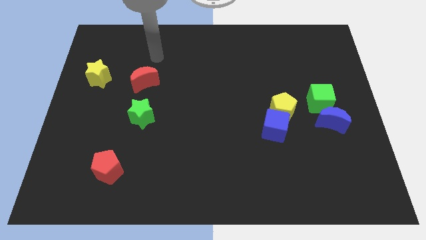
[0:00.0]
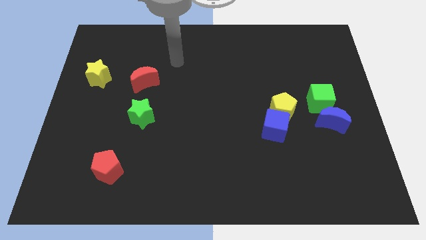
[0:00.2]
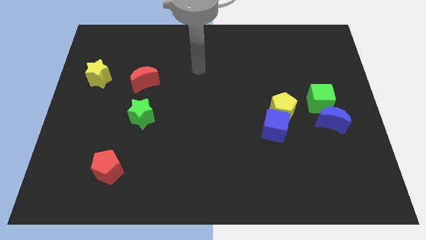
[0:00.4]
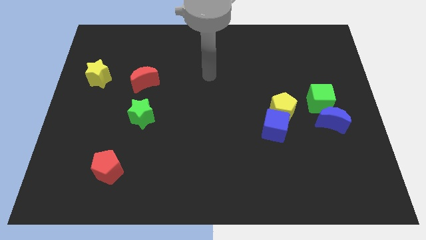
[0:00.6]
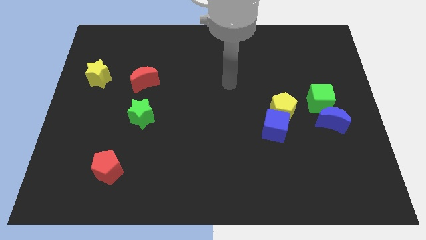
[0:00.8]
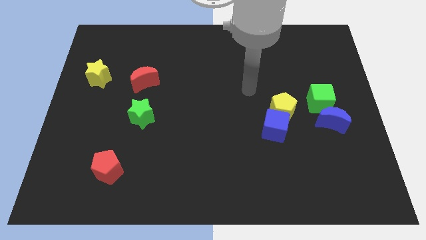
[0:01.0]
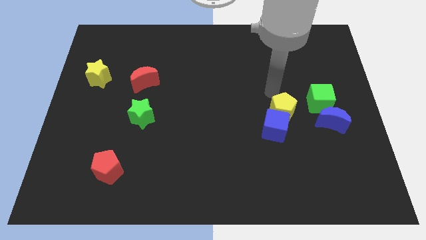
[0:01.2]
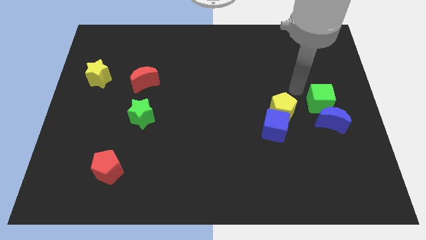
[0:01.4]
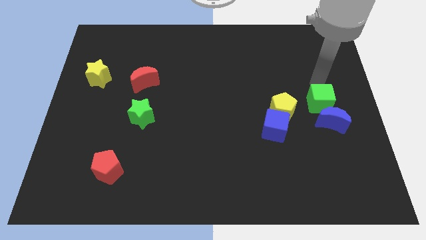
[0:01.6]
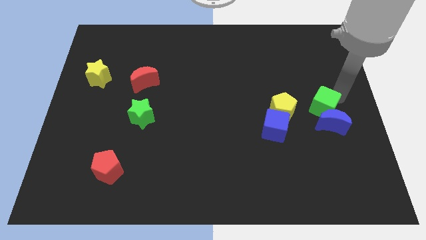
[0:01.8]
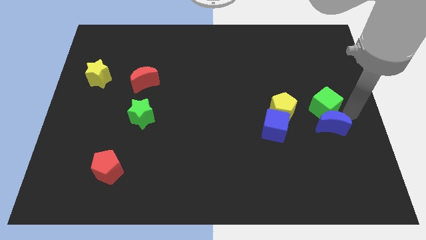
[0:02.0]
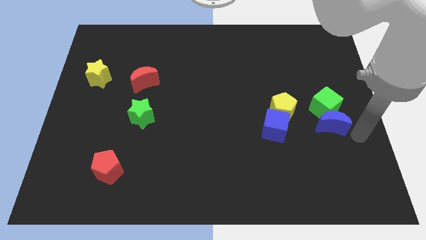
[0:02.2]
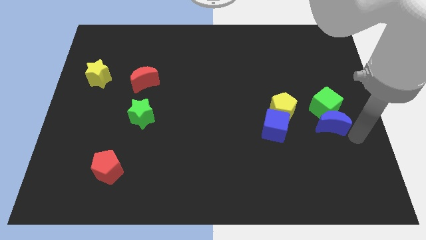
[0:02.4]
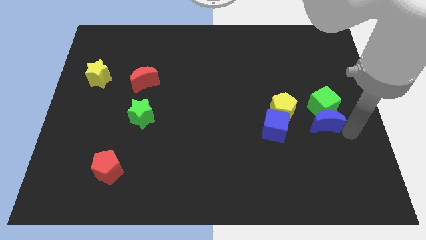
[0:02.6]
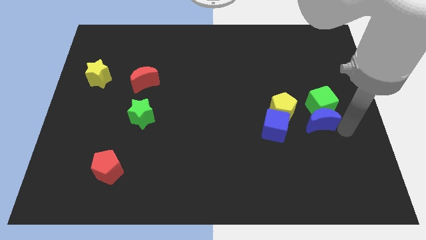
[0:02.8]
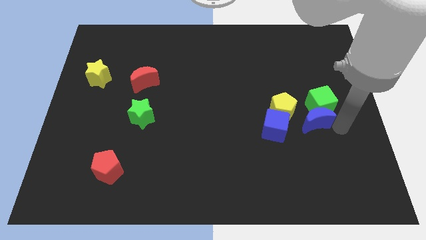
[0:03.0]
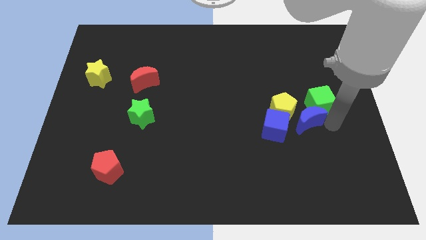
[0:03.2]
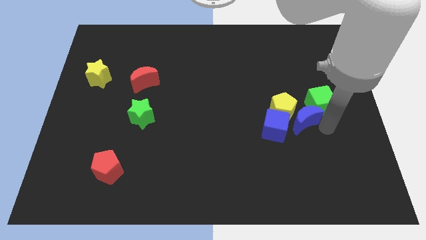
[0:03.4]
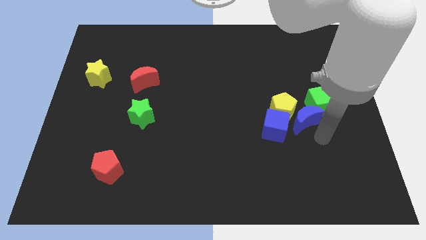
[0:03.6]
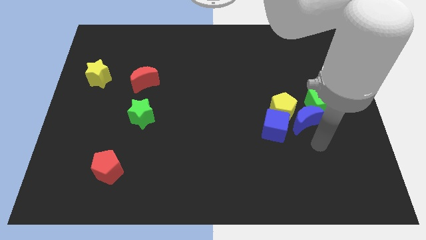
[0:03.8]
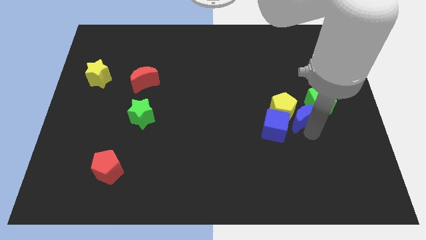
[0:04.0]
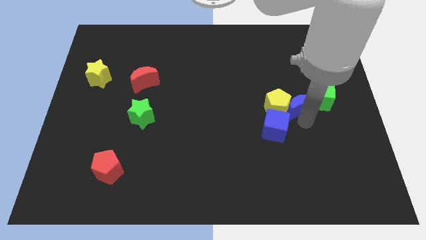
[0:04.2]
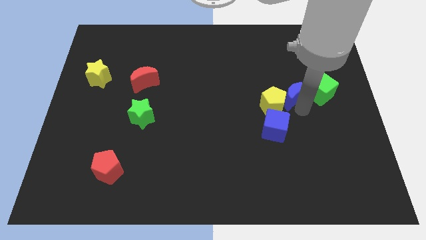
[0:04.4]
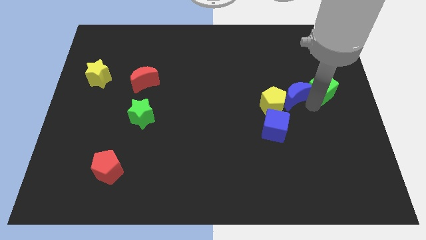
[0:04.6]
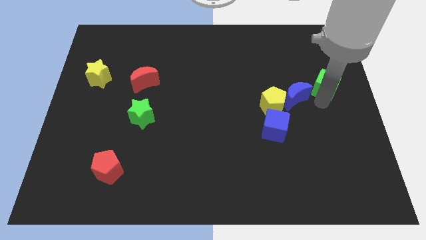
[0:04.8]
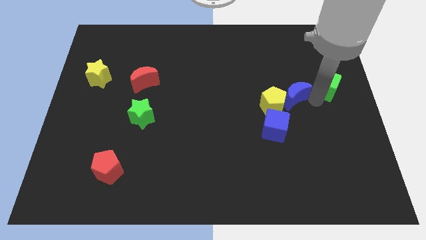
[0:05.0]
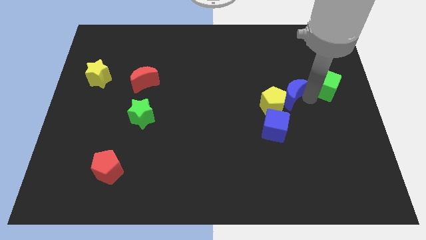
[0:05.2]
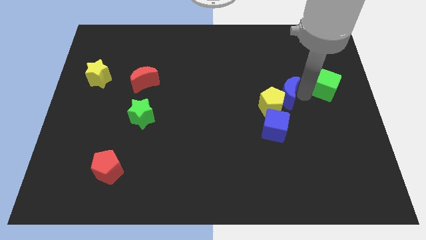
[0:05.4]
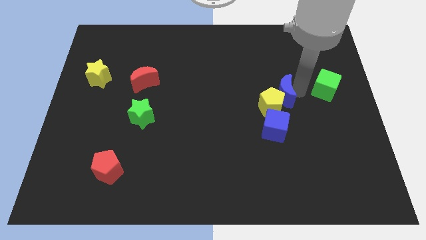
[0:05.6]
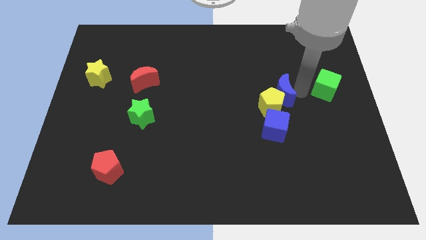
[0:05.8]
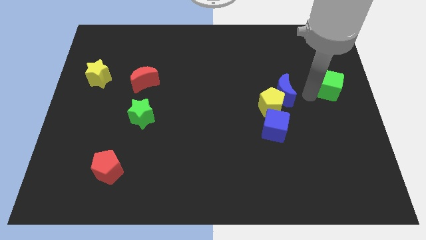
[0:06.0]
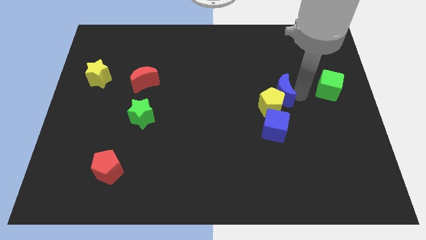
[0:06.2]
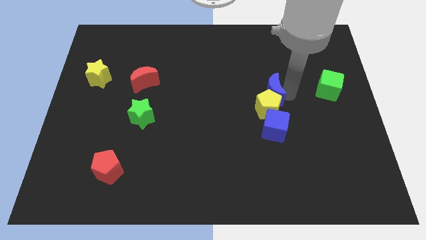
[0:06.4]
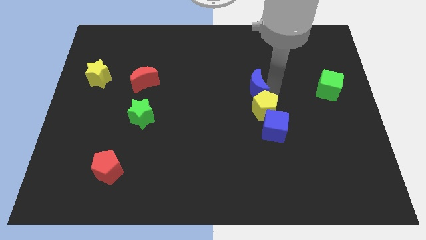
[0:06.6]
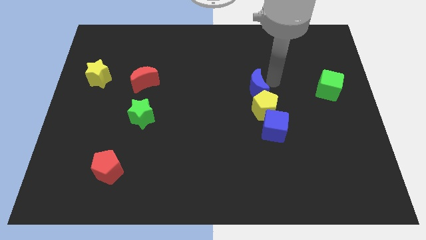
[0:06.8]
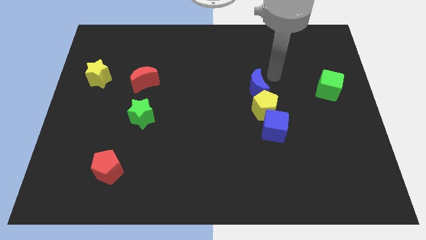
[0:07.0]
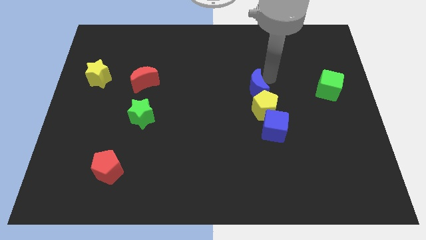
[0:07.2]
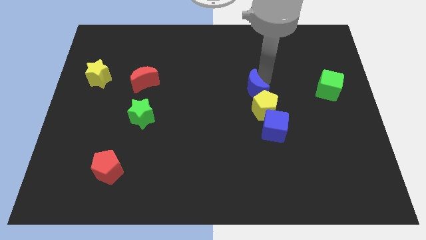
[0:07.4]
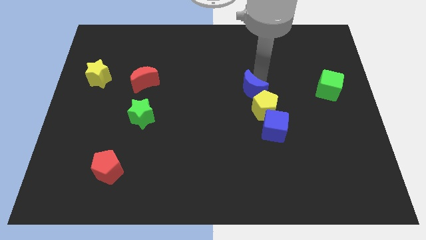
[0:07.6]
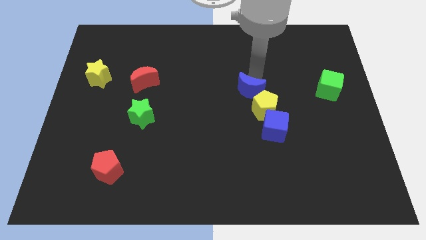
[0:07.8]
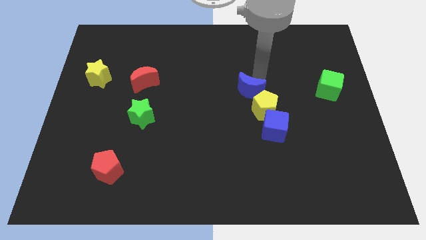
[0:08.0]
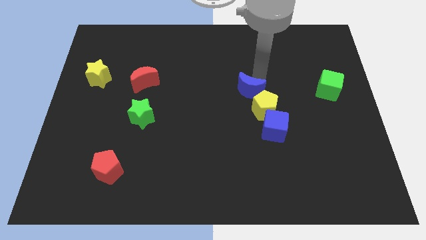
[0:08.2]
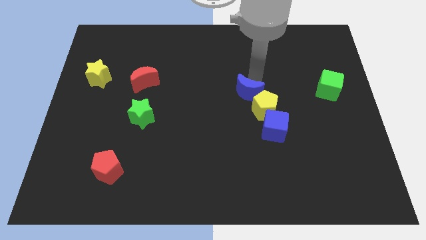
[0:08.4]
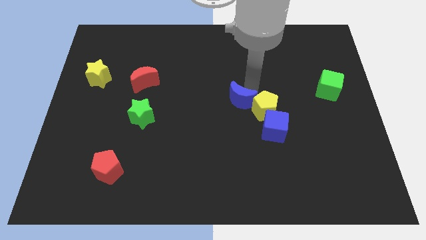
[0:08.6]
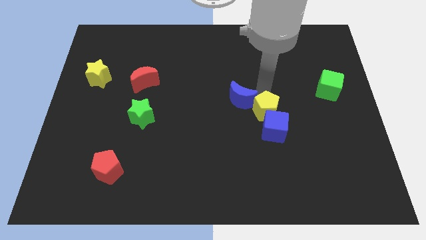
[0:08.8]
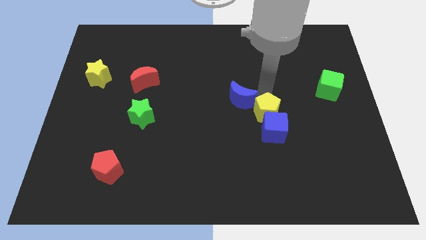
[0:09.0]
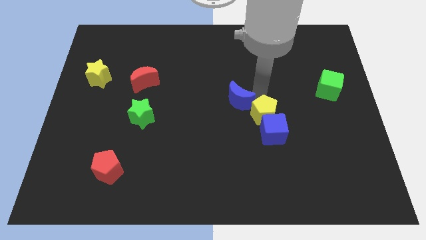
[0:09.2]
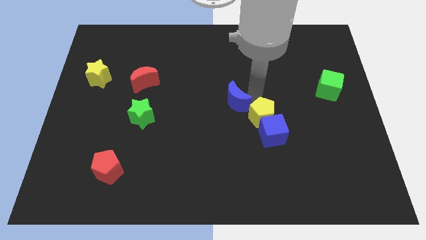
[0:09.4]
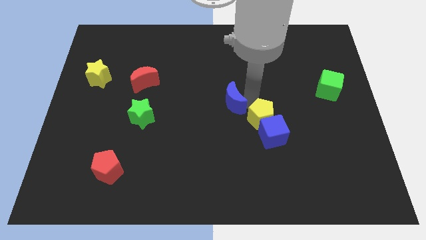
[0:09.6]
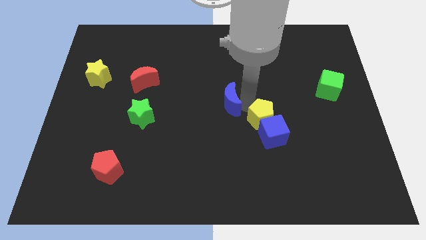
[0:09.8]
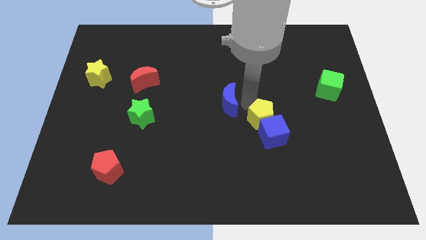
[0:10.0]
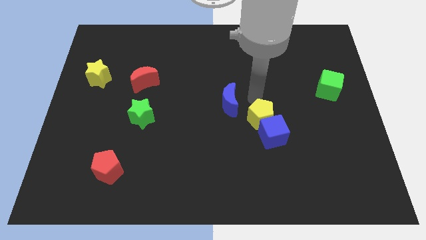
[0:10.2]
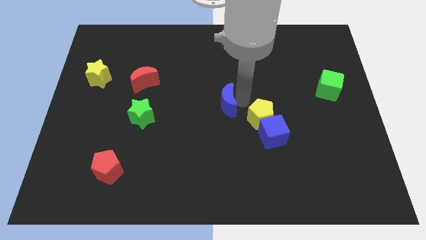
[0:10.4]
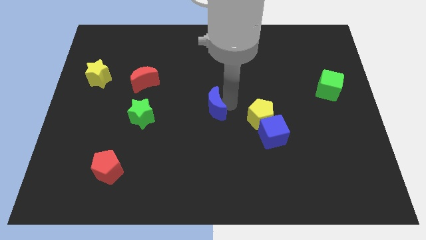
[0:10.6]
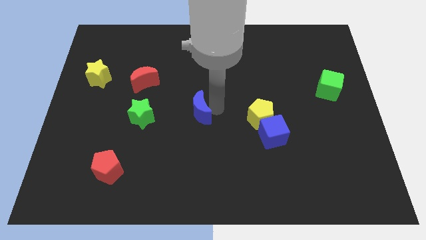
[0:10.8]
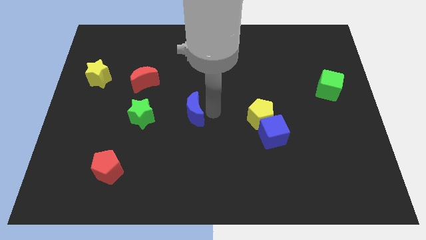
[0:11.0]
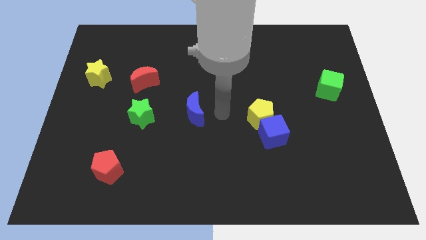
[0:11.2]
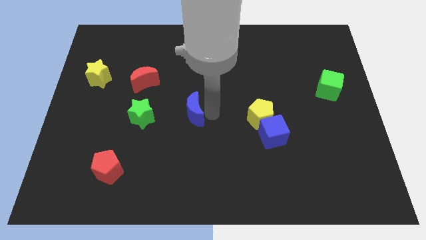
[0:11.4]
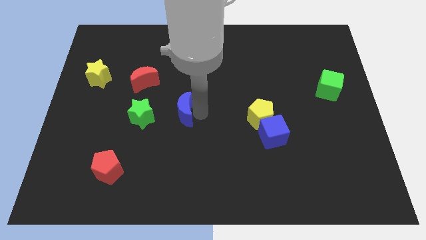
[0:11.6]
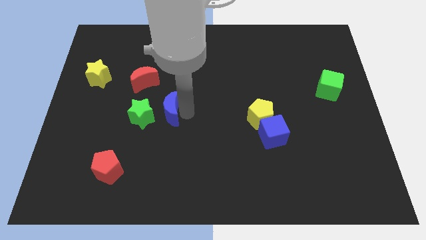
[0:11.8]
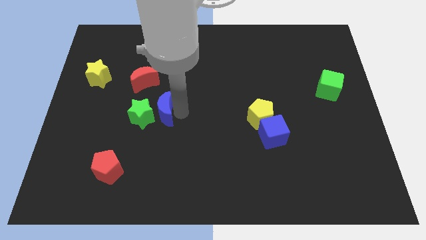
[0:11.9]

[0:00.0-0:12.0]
put the blue moon next to the green star

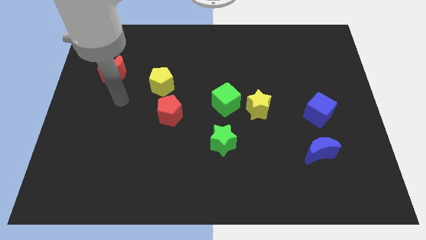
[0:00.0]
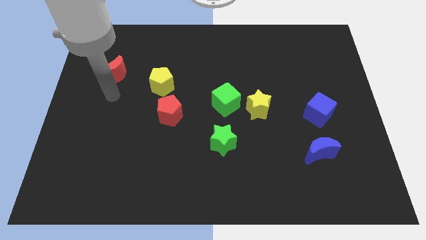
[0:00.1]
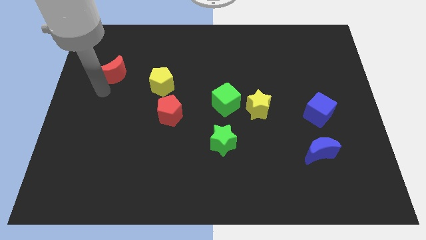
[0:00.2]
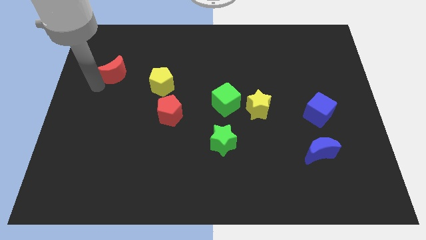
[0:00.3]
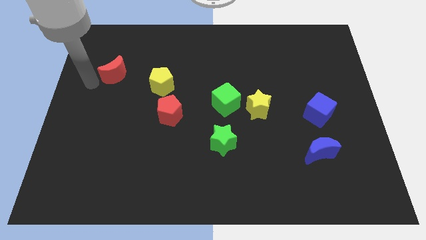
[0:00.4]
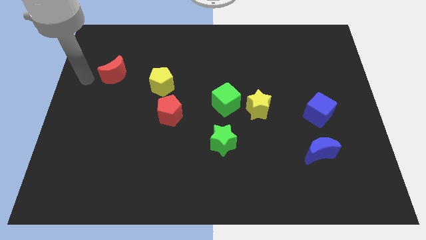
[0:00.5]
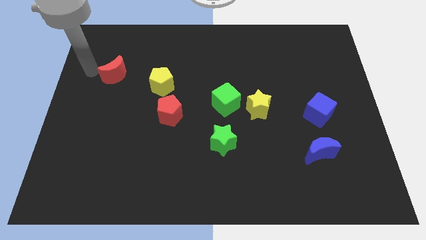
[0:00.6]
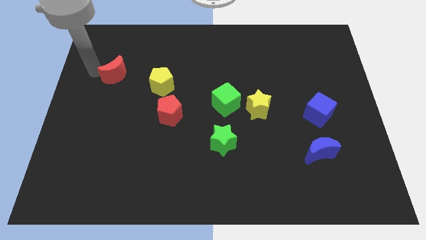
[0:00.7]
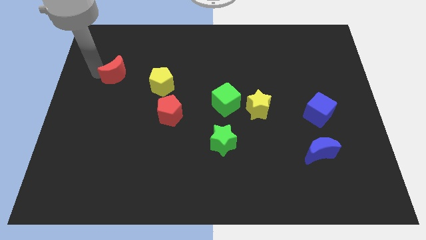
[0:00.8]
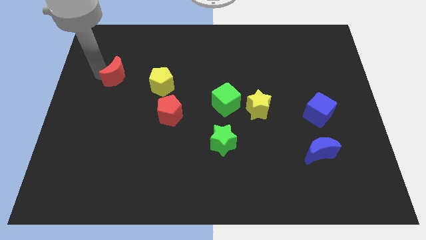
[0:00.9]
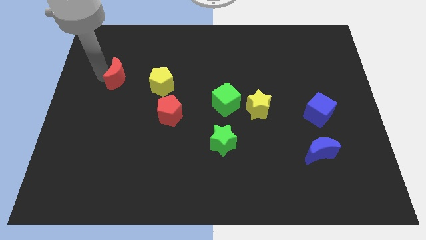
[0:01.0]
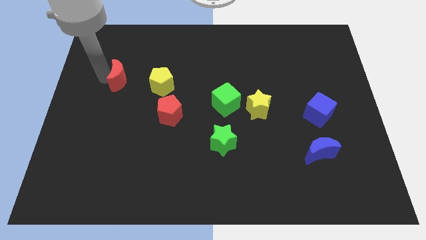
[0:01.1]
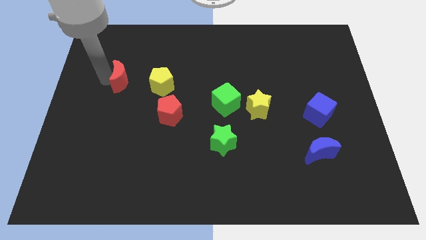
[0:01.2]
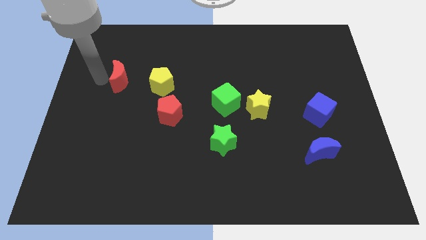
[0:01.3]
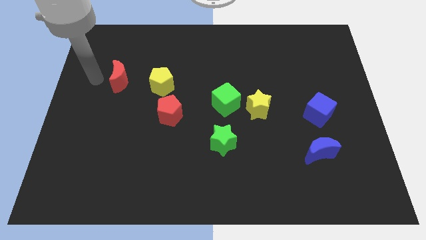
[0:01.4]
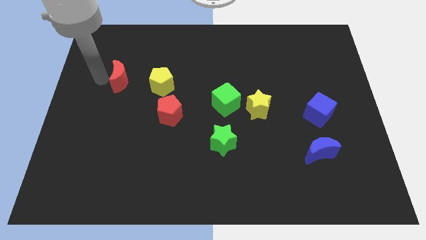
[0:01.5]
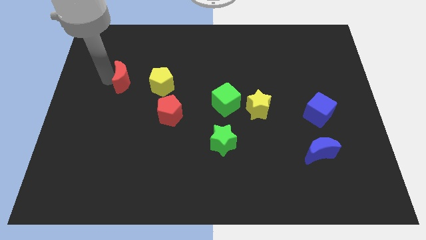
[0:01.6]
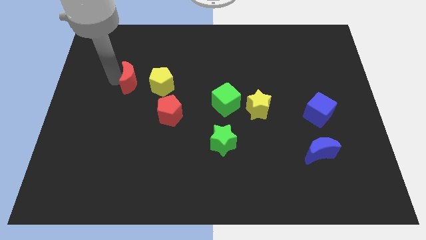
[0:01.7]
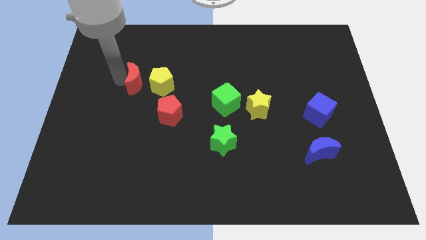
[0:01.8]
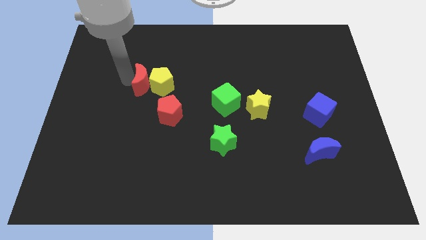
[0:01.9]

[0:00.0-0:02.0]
push the red moon to the yellow pentagon
